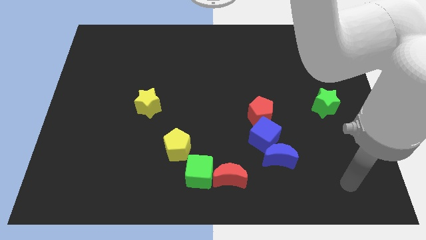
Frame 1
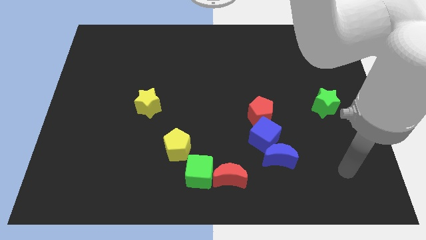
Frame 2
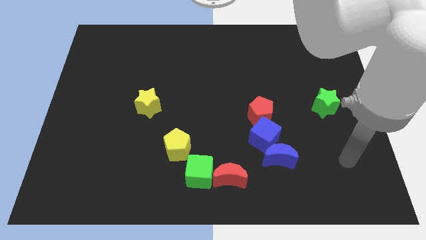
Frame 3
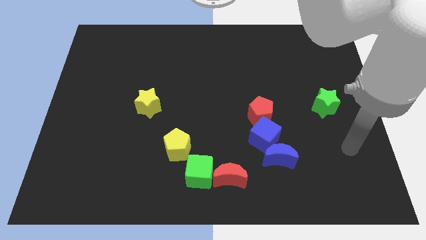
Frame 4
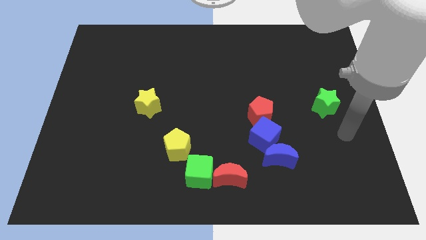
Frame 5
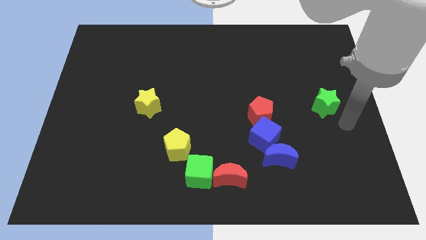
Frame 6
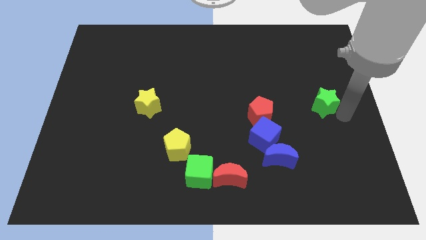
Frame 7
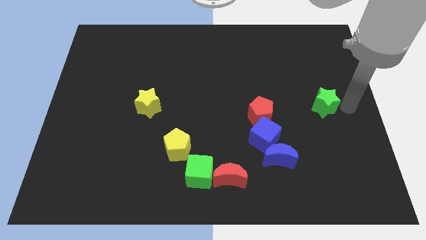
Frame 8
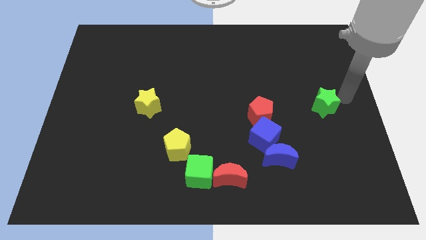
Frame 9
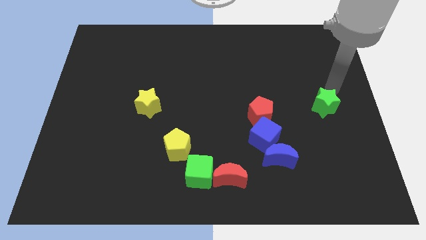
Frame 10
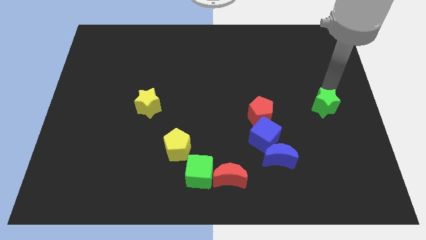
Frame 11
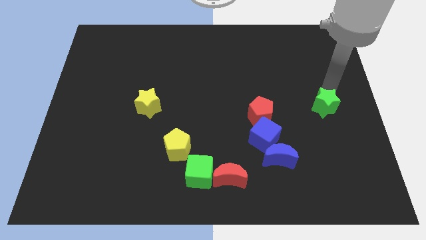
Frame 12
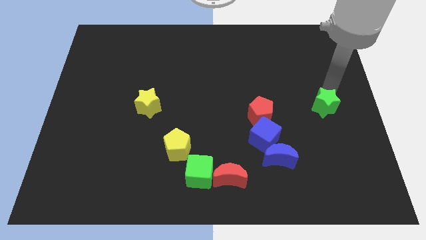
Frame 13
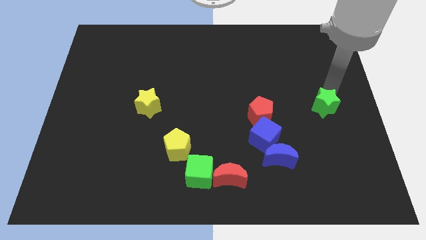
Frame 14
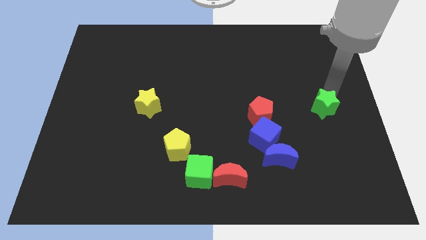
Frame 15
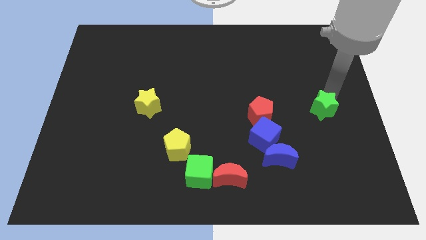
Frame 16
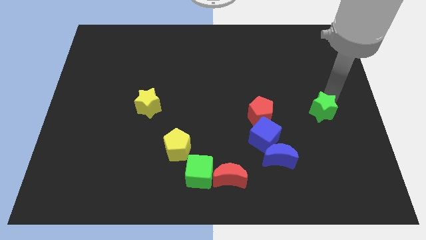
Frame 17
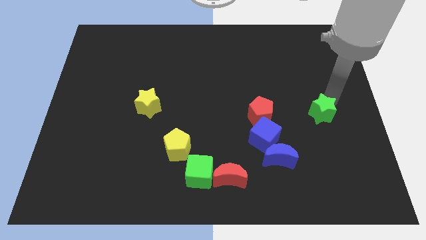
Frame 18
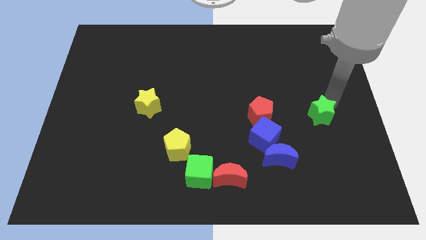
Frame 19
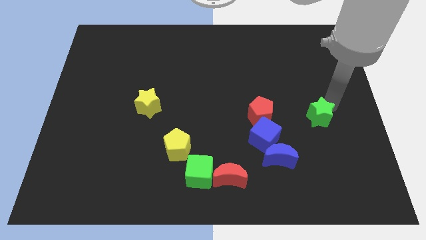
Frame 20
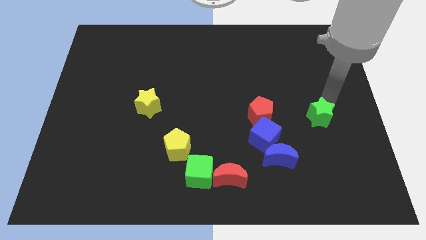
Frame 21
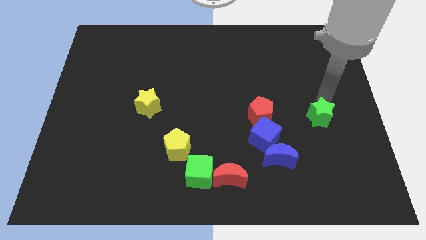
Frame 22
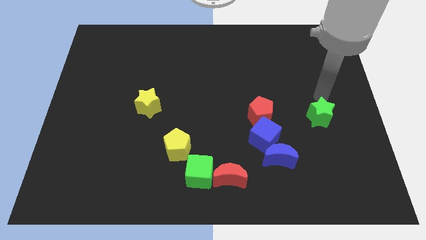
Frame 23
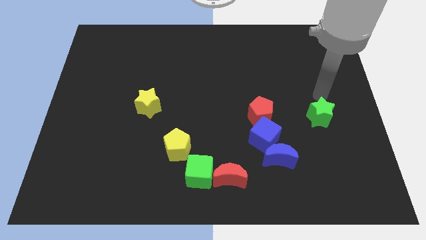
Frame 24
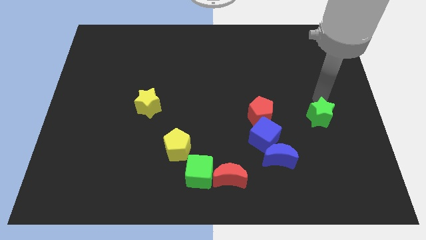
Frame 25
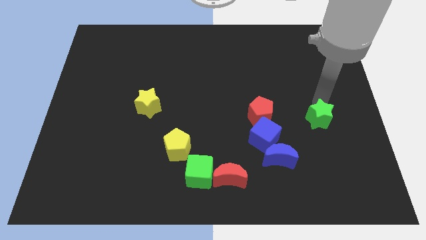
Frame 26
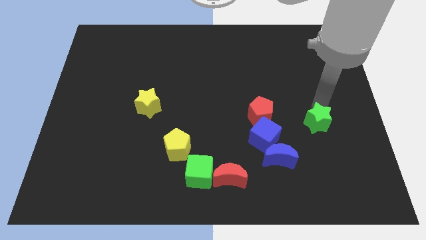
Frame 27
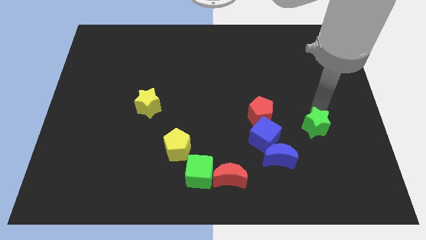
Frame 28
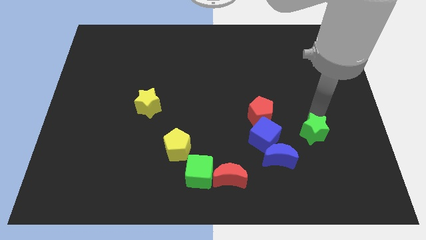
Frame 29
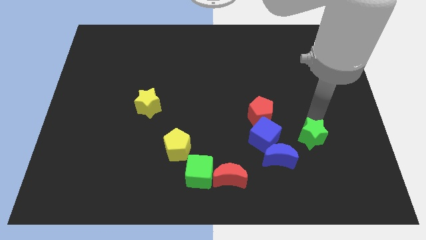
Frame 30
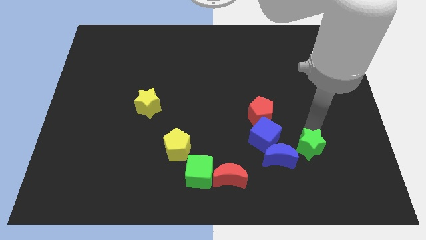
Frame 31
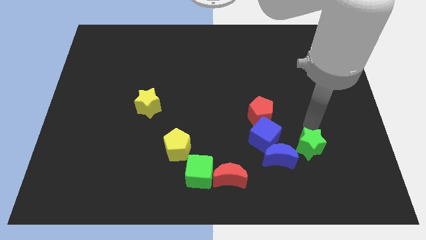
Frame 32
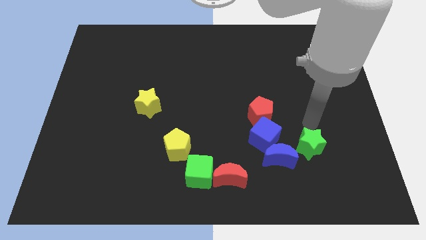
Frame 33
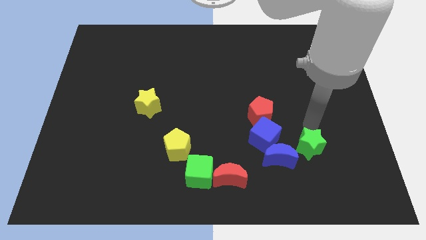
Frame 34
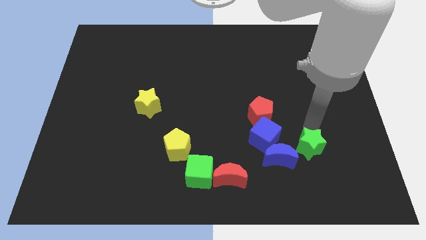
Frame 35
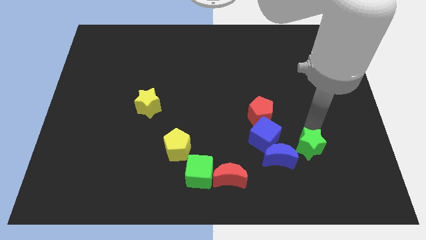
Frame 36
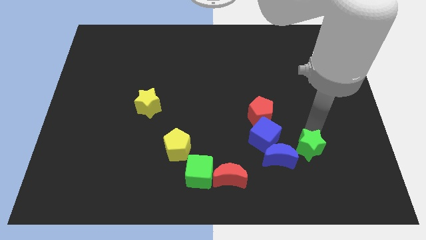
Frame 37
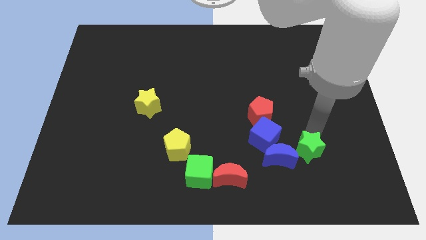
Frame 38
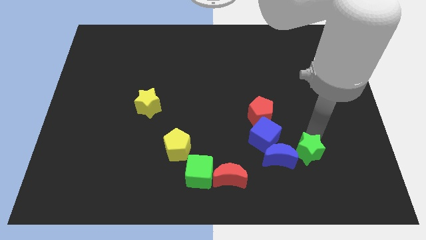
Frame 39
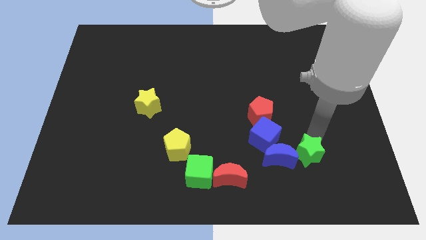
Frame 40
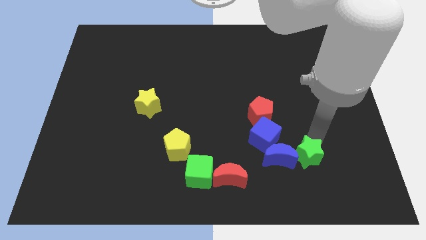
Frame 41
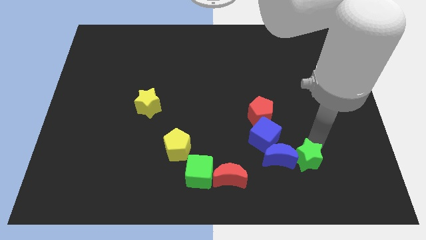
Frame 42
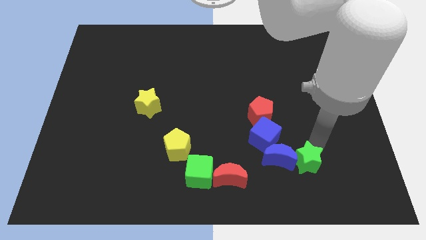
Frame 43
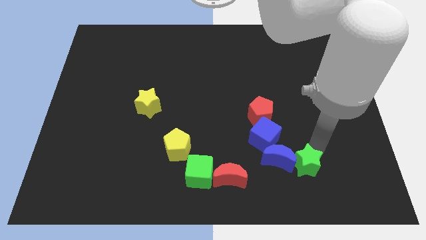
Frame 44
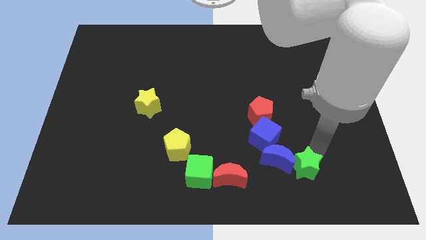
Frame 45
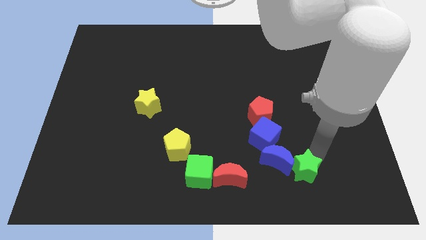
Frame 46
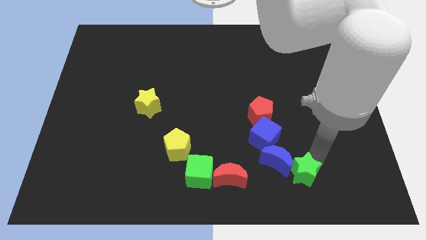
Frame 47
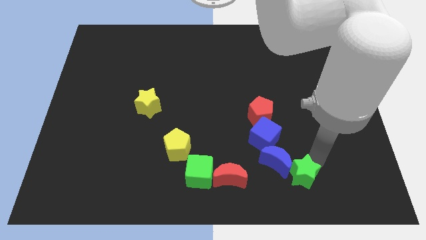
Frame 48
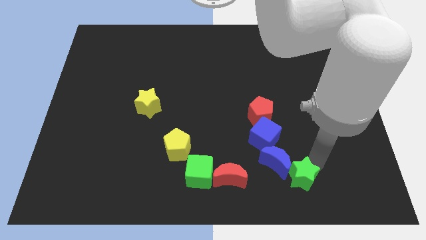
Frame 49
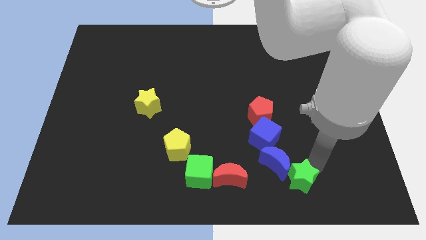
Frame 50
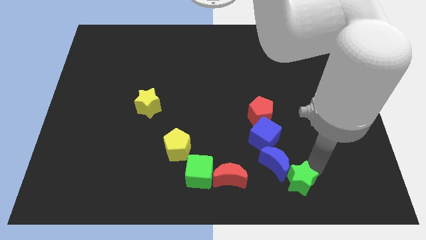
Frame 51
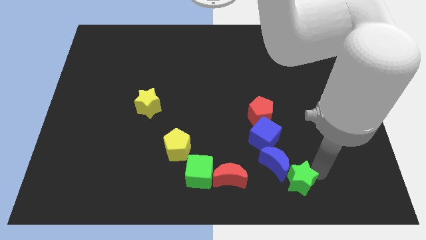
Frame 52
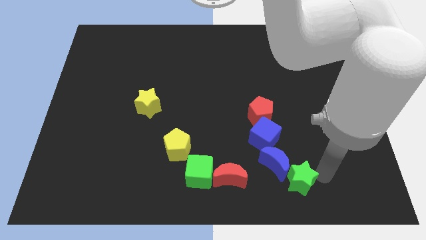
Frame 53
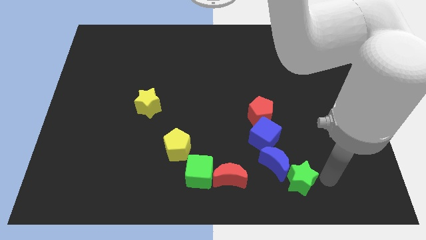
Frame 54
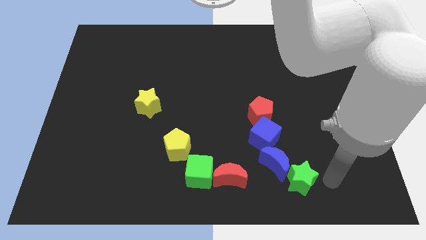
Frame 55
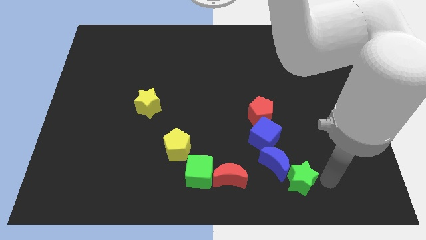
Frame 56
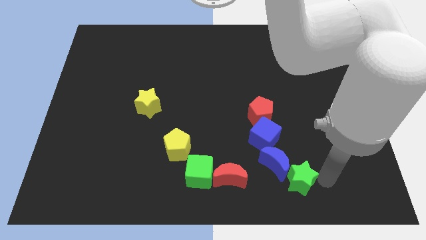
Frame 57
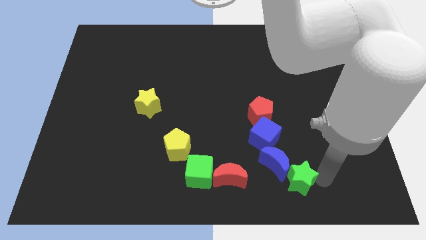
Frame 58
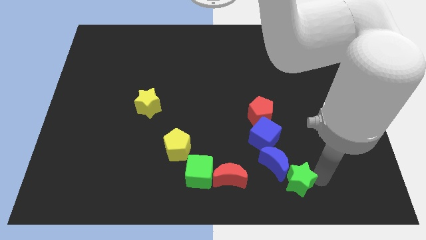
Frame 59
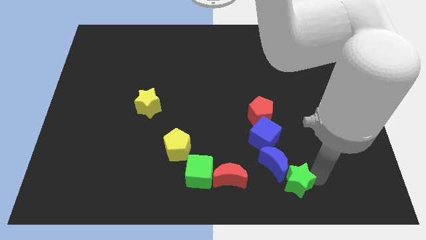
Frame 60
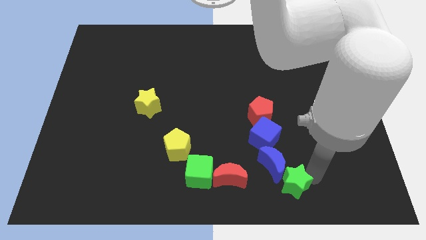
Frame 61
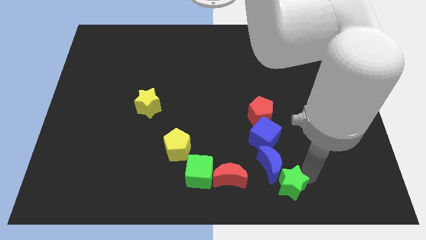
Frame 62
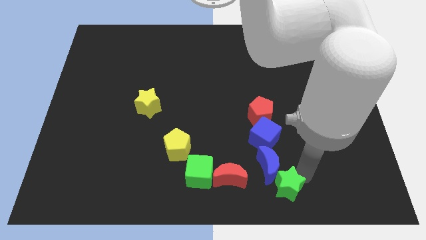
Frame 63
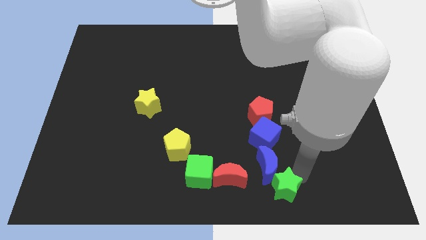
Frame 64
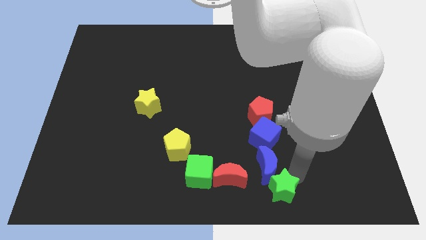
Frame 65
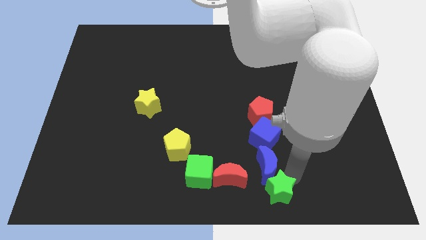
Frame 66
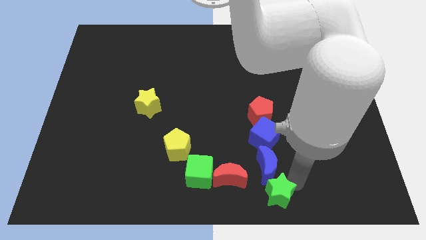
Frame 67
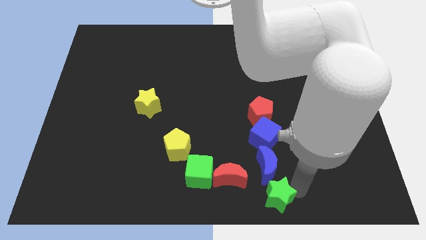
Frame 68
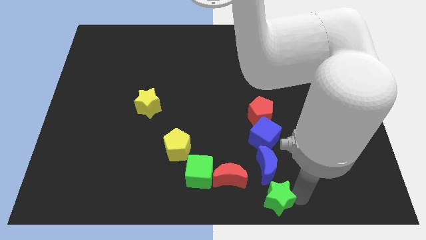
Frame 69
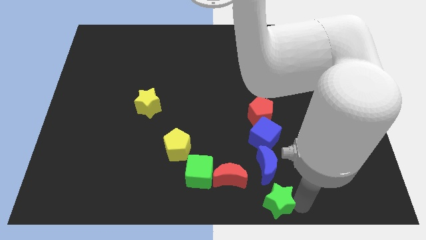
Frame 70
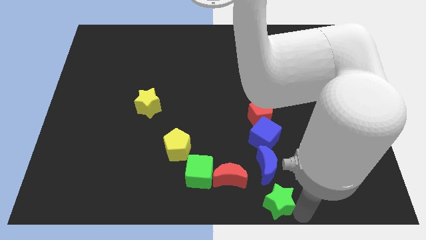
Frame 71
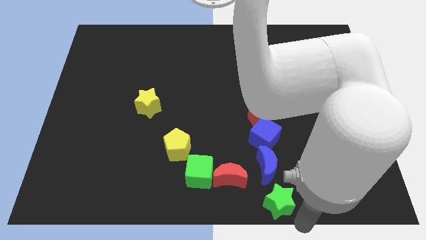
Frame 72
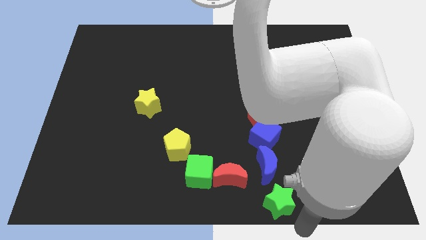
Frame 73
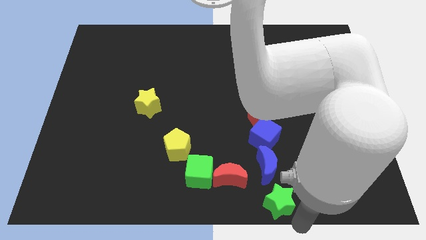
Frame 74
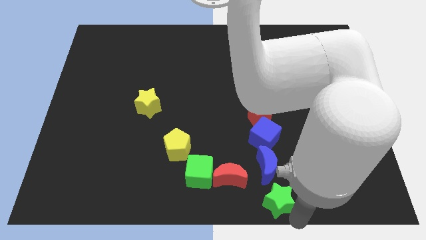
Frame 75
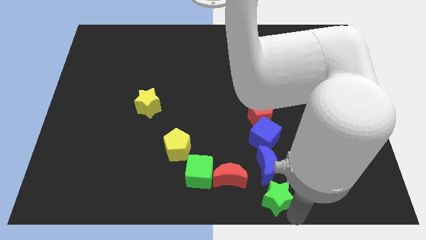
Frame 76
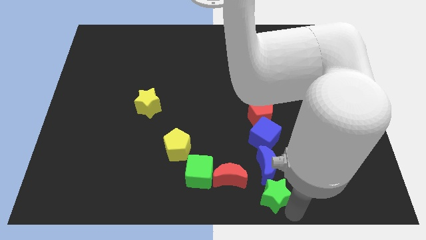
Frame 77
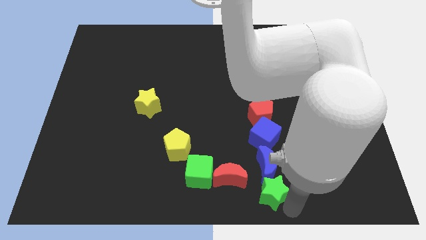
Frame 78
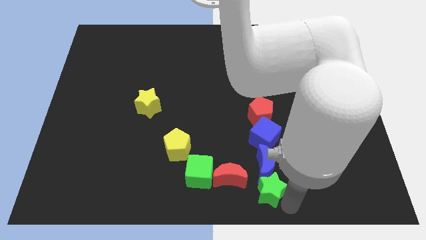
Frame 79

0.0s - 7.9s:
move the green star to the right of the green cube
